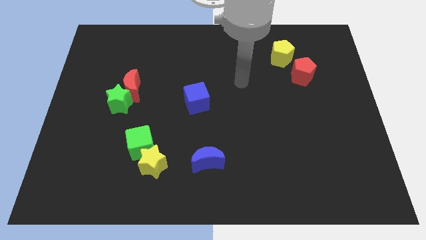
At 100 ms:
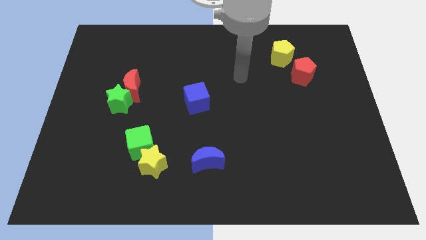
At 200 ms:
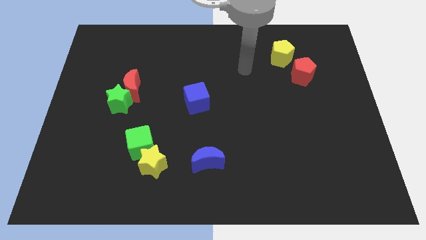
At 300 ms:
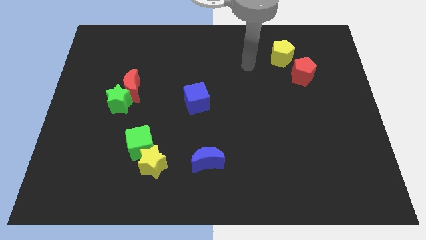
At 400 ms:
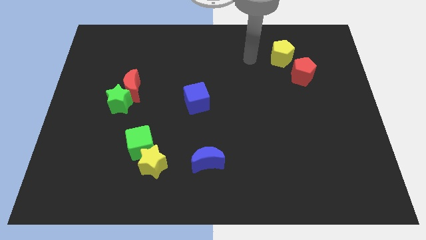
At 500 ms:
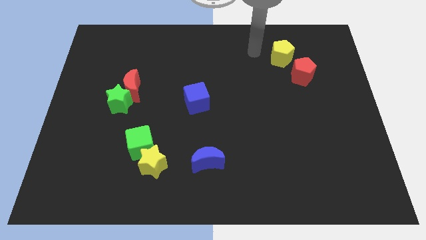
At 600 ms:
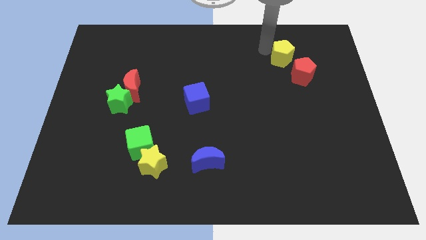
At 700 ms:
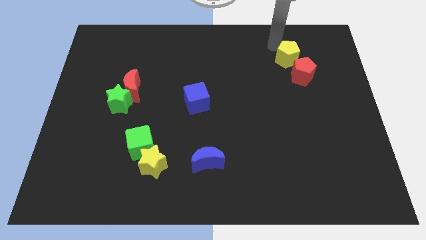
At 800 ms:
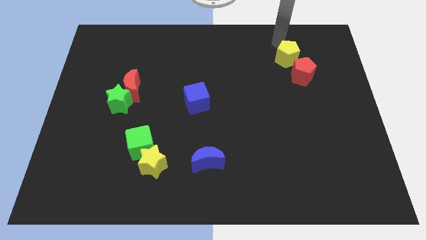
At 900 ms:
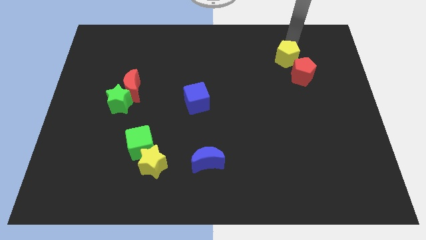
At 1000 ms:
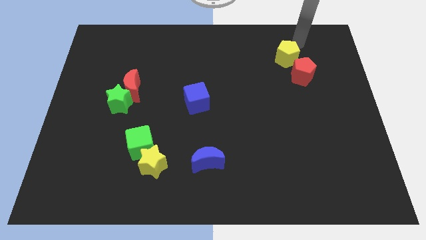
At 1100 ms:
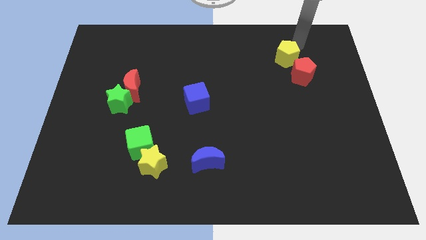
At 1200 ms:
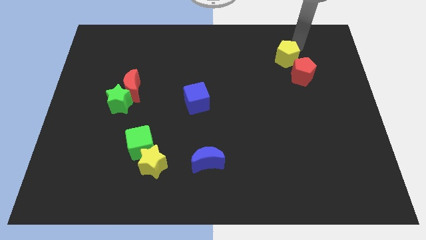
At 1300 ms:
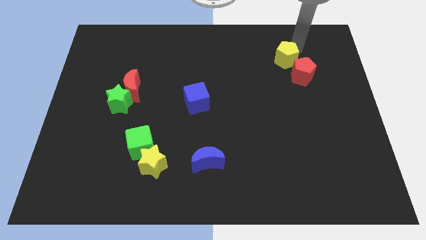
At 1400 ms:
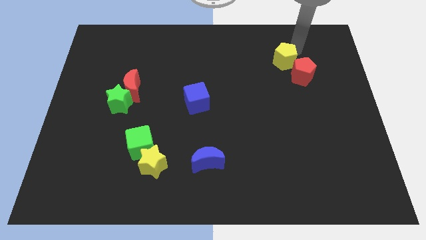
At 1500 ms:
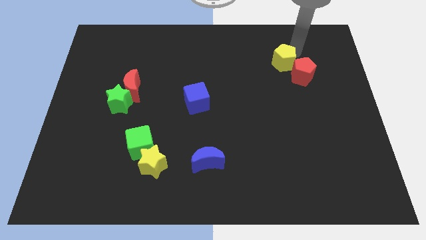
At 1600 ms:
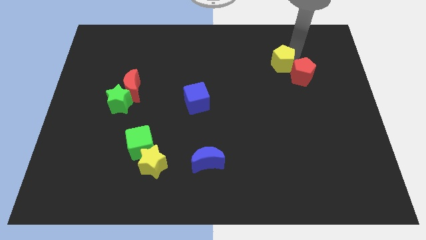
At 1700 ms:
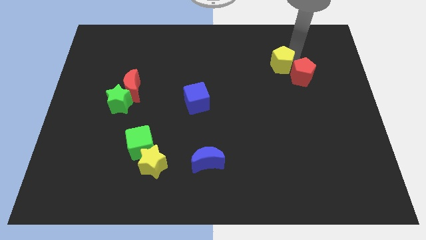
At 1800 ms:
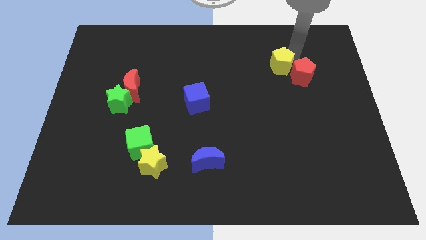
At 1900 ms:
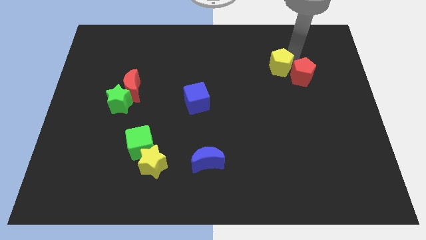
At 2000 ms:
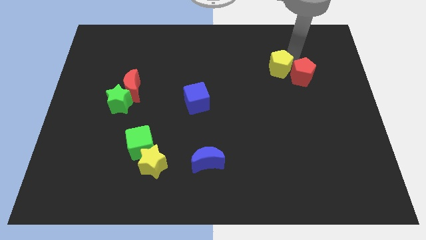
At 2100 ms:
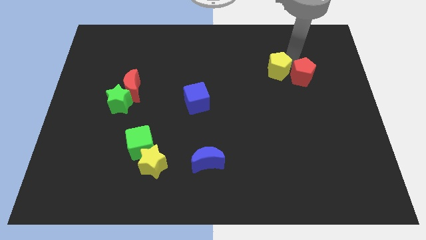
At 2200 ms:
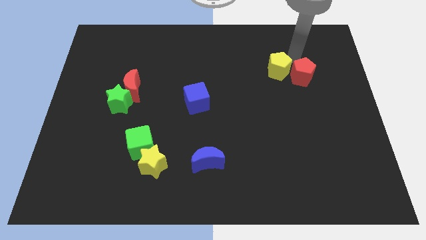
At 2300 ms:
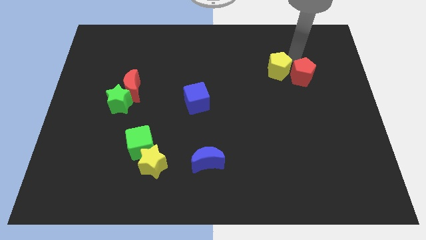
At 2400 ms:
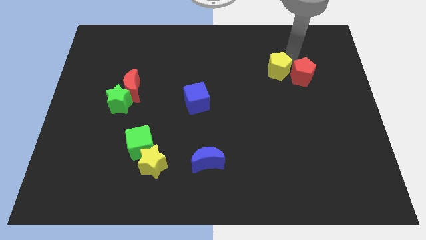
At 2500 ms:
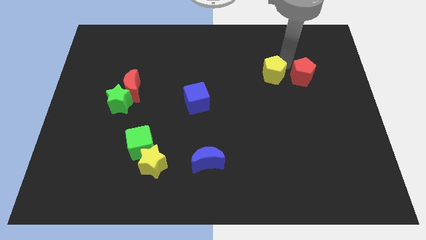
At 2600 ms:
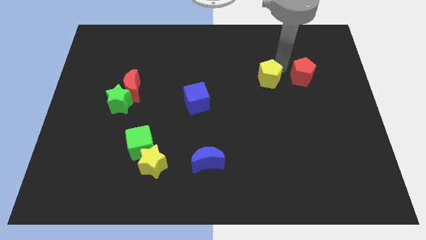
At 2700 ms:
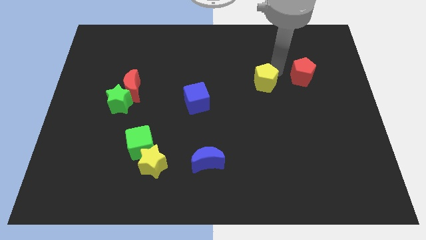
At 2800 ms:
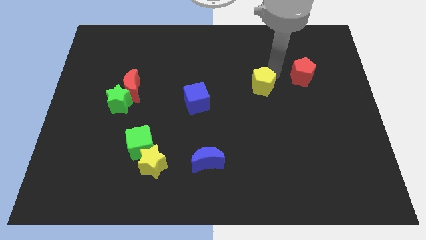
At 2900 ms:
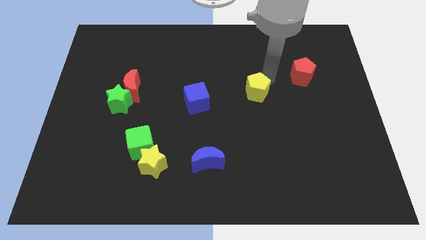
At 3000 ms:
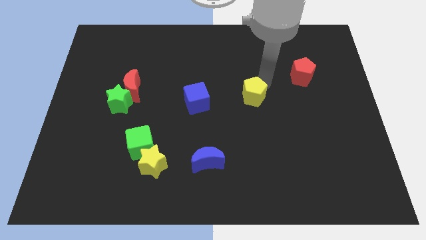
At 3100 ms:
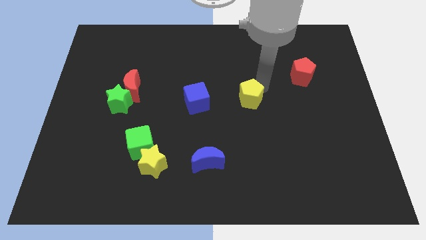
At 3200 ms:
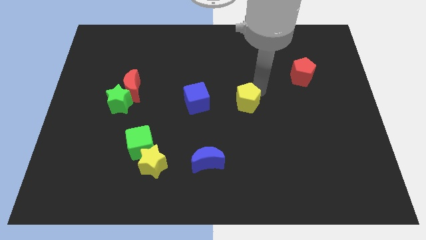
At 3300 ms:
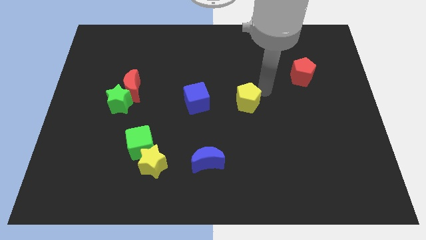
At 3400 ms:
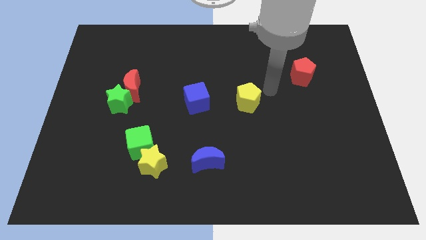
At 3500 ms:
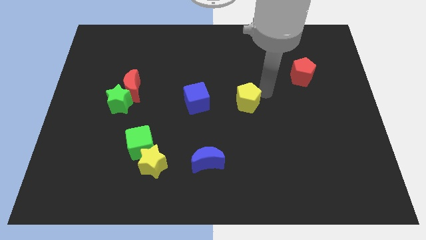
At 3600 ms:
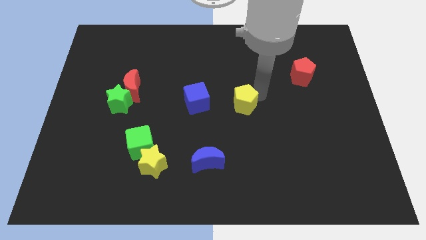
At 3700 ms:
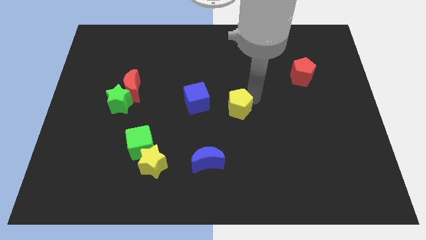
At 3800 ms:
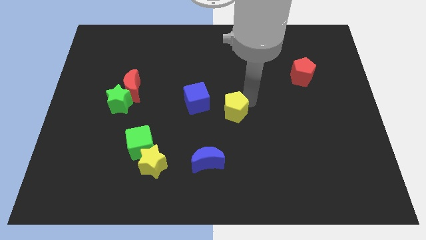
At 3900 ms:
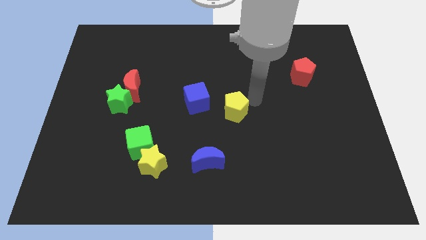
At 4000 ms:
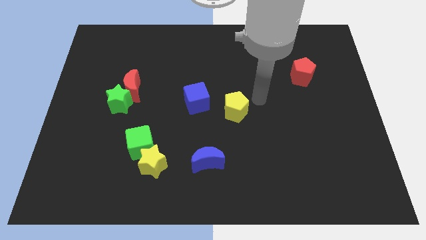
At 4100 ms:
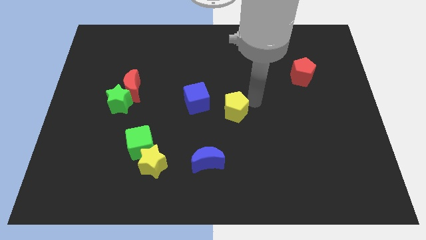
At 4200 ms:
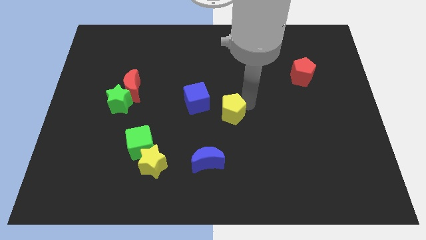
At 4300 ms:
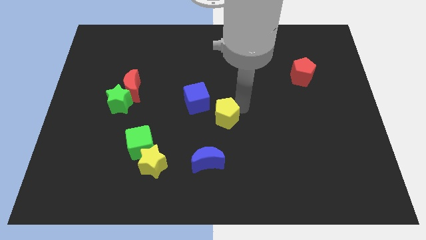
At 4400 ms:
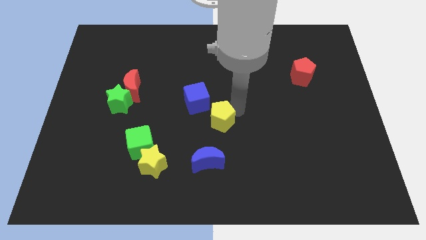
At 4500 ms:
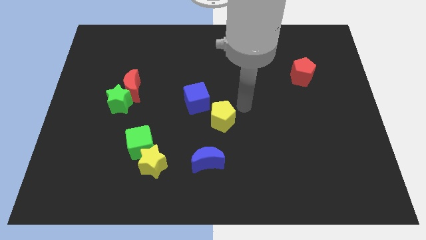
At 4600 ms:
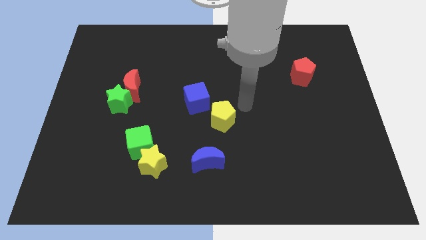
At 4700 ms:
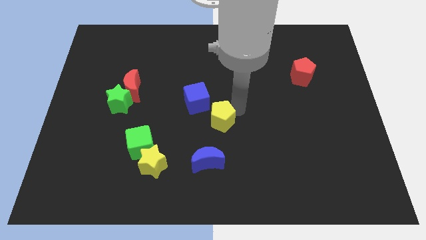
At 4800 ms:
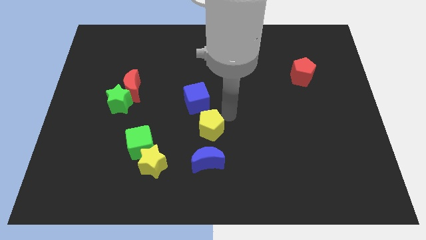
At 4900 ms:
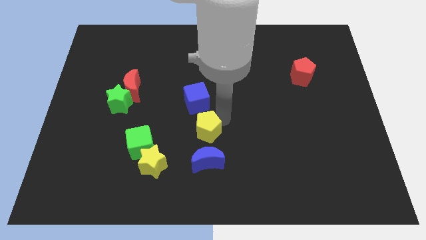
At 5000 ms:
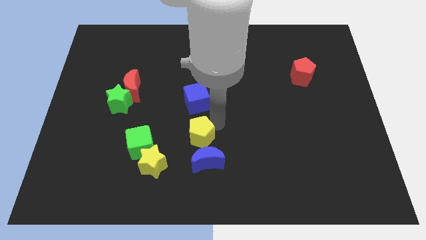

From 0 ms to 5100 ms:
move the yellow pentagon to the top left of the blue moon

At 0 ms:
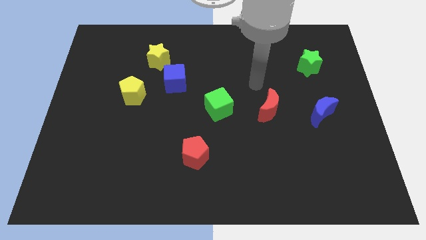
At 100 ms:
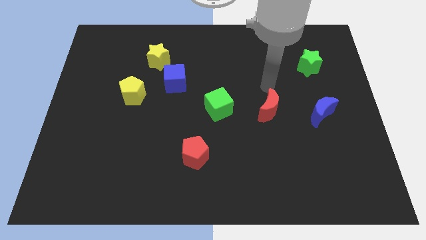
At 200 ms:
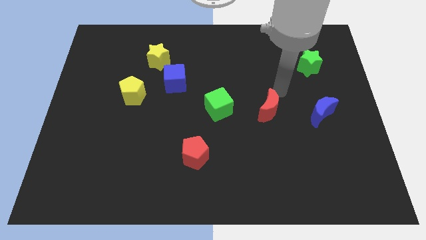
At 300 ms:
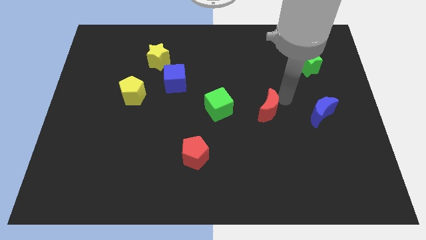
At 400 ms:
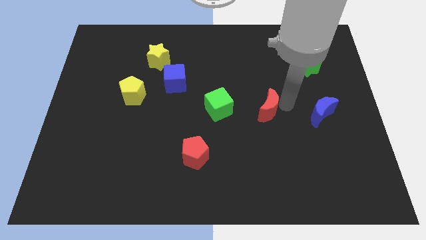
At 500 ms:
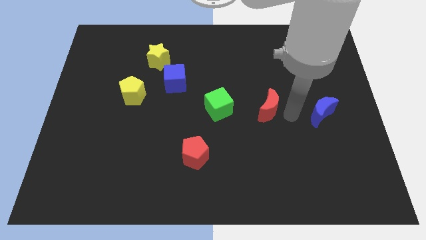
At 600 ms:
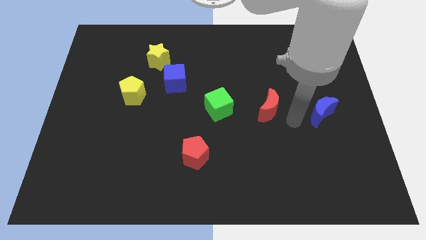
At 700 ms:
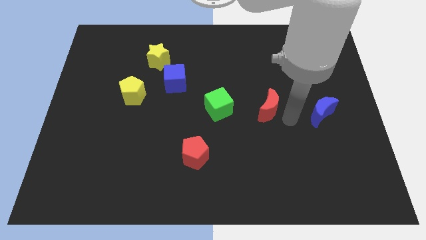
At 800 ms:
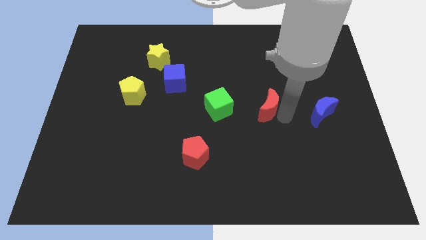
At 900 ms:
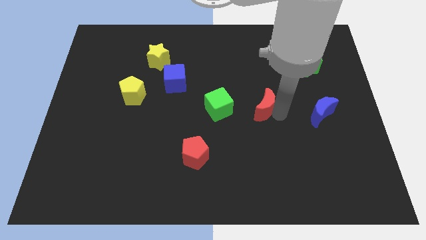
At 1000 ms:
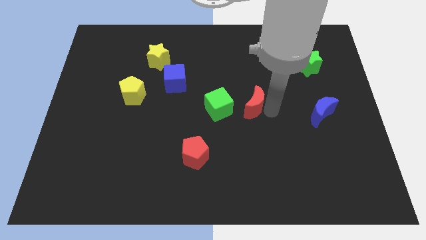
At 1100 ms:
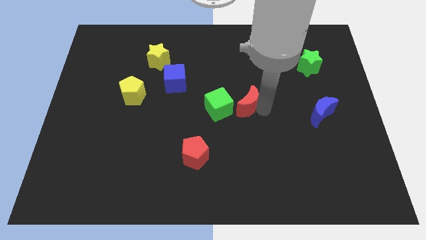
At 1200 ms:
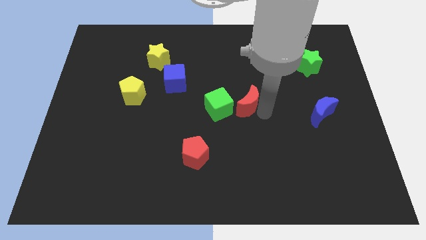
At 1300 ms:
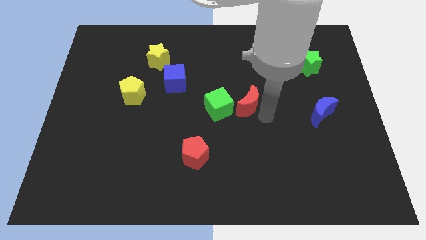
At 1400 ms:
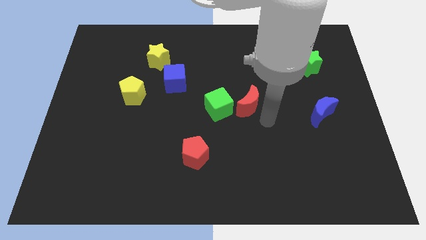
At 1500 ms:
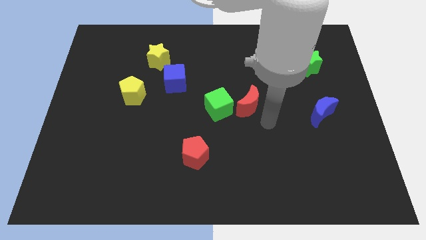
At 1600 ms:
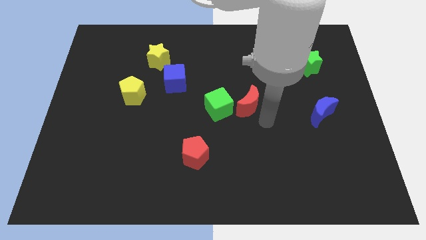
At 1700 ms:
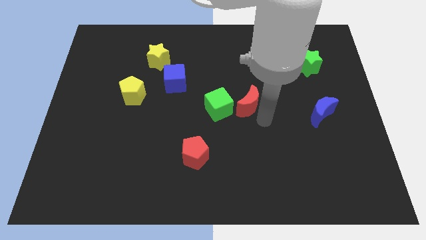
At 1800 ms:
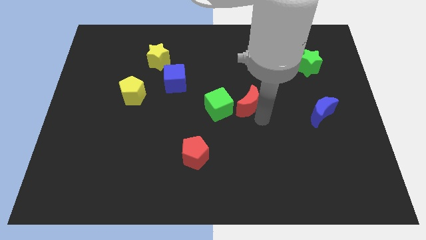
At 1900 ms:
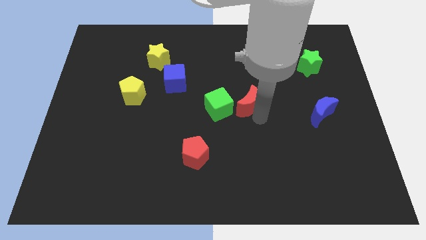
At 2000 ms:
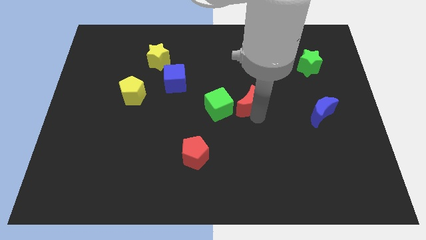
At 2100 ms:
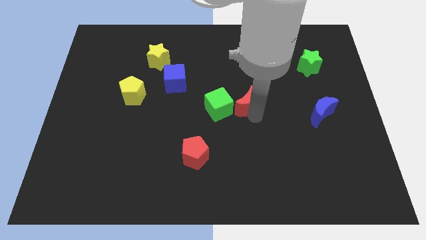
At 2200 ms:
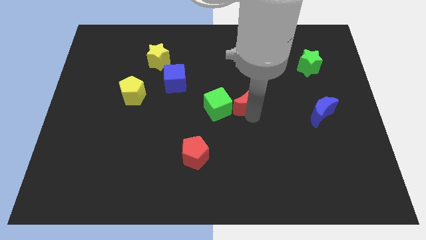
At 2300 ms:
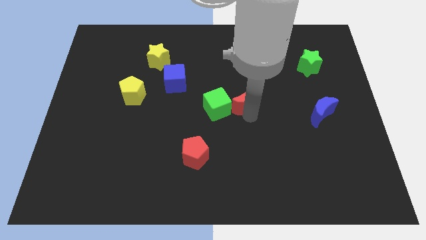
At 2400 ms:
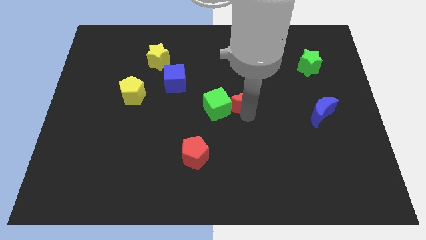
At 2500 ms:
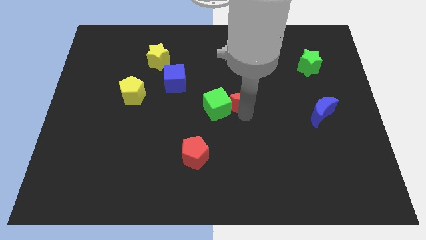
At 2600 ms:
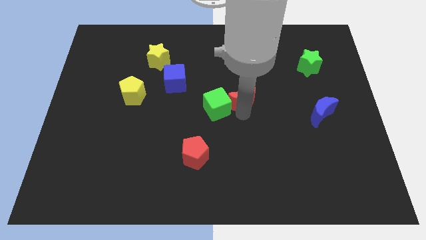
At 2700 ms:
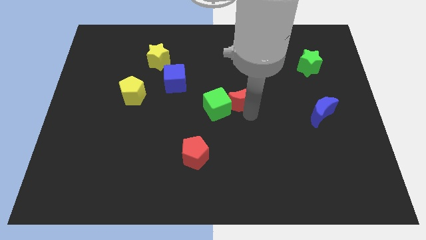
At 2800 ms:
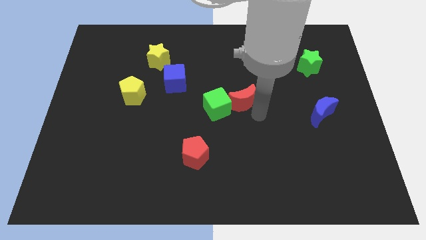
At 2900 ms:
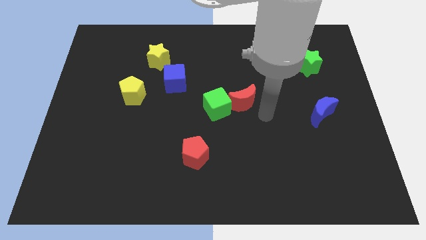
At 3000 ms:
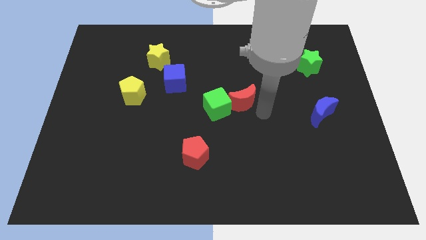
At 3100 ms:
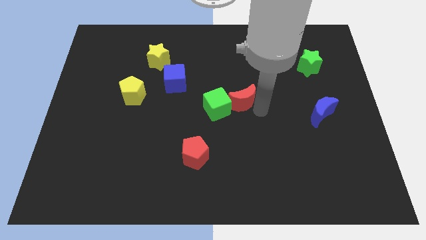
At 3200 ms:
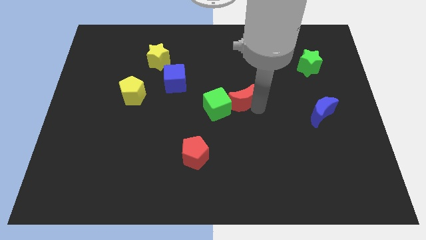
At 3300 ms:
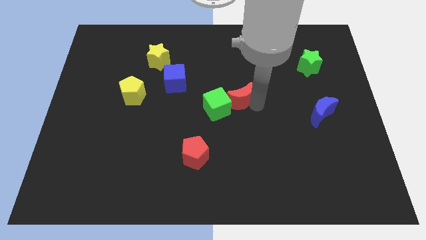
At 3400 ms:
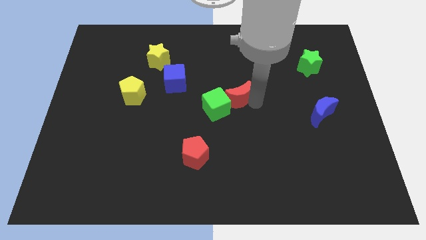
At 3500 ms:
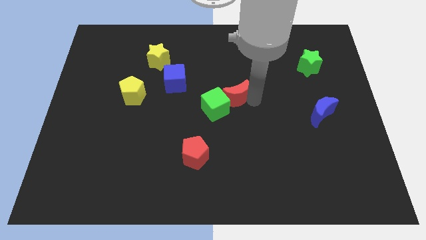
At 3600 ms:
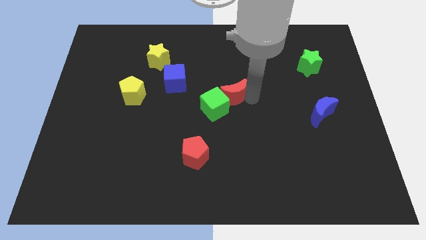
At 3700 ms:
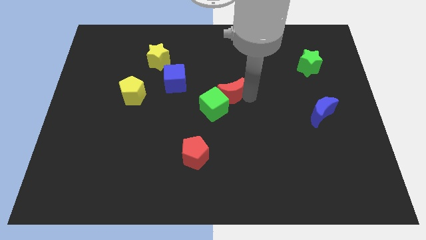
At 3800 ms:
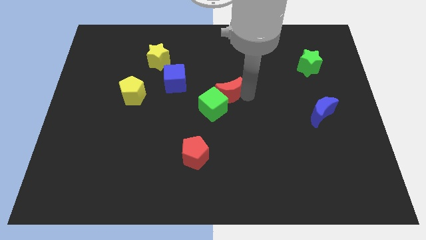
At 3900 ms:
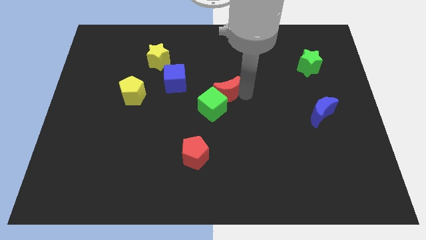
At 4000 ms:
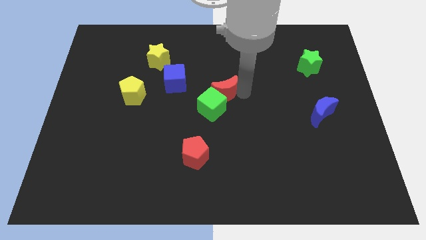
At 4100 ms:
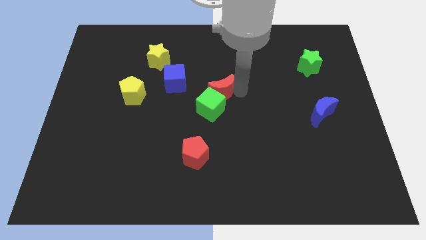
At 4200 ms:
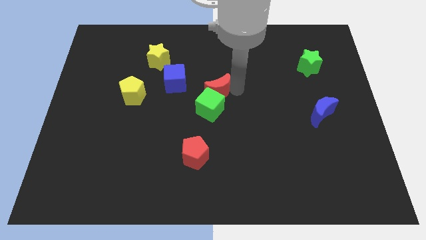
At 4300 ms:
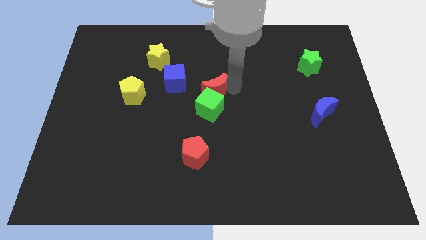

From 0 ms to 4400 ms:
push the red moon to the top left side of the green cube
